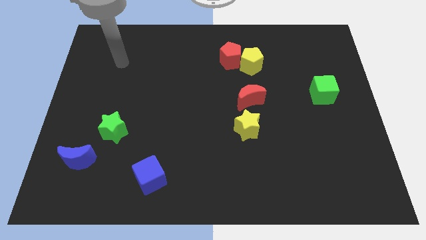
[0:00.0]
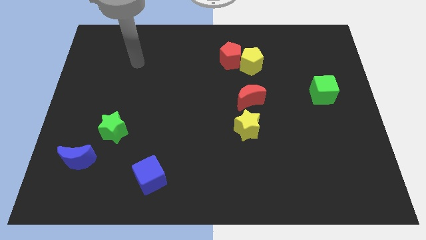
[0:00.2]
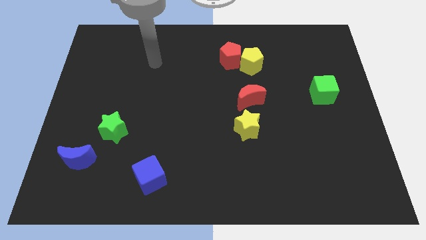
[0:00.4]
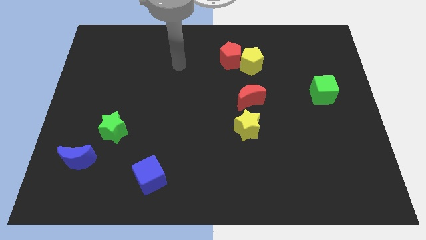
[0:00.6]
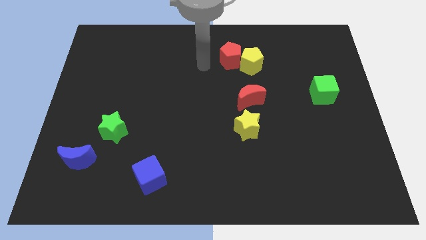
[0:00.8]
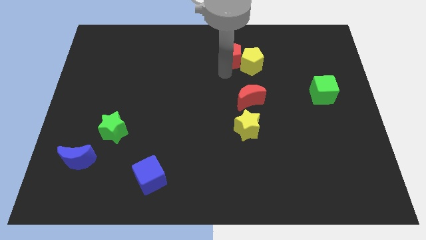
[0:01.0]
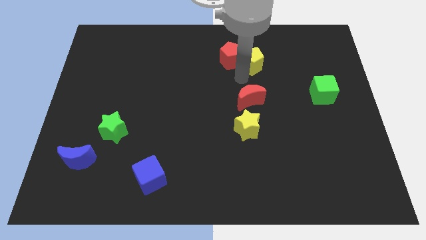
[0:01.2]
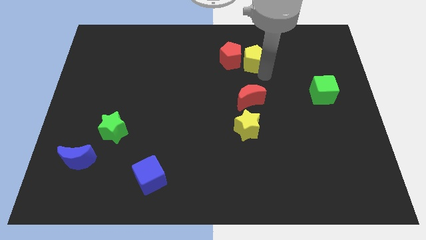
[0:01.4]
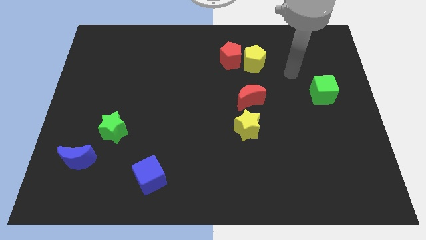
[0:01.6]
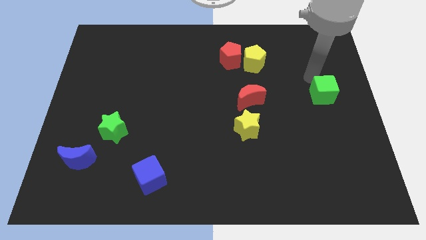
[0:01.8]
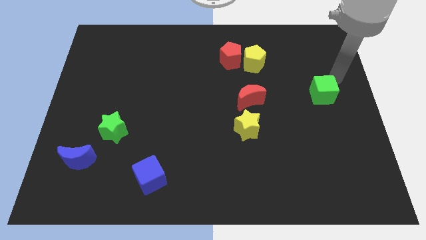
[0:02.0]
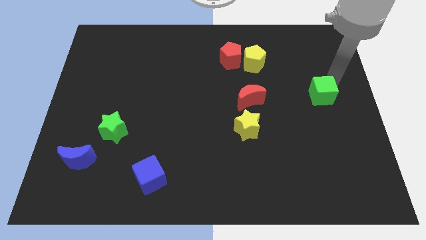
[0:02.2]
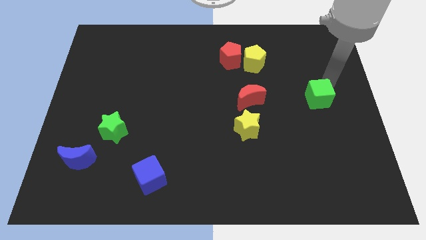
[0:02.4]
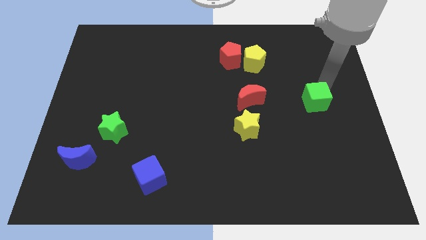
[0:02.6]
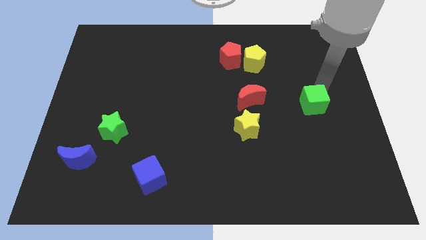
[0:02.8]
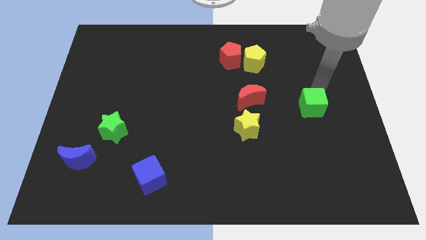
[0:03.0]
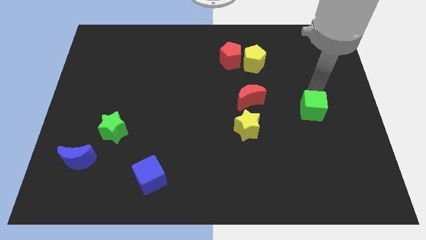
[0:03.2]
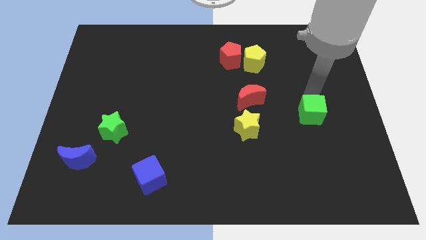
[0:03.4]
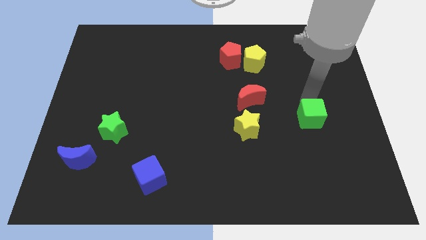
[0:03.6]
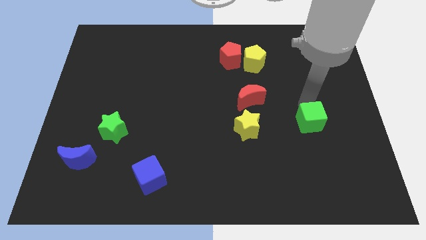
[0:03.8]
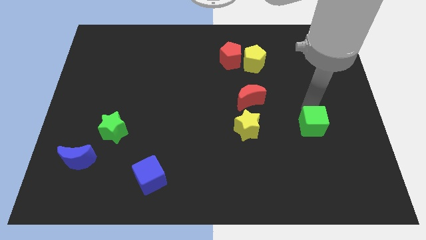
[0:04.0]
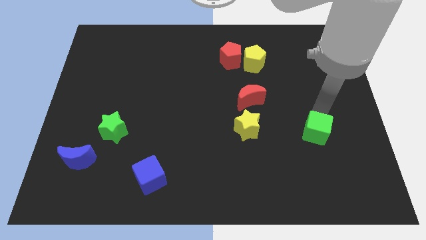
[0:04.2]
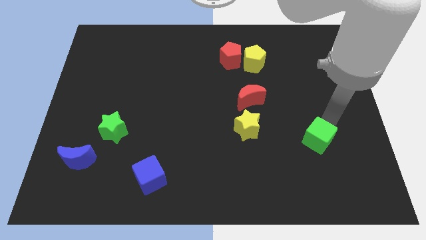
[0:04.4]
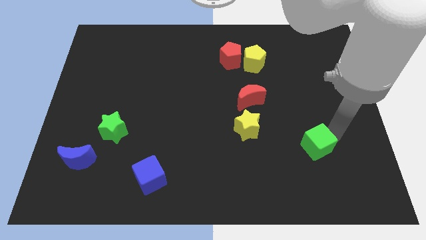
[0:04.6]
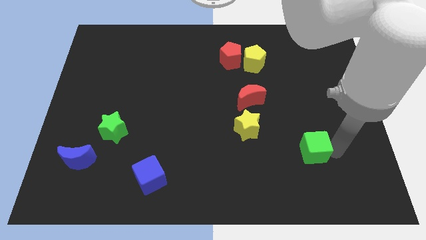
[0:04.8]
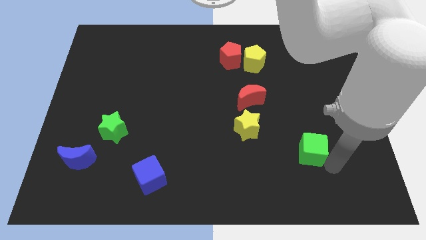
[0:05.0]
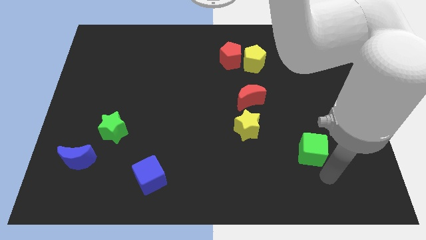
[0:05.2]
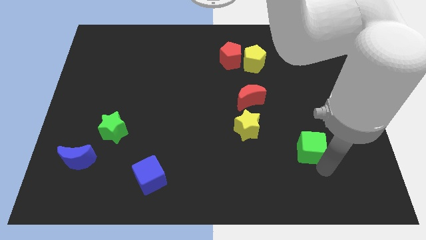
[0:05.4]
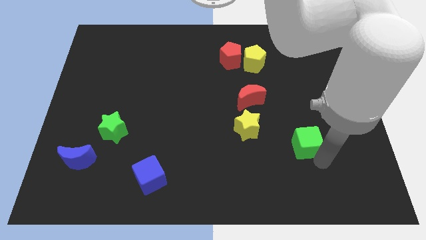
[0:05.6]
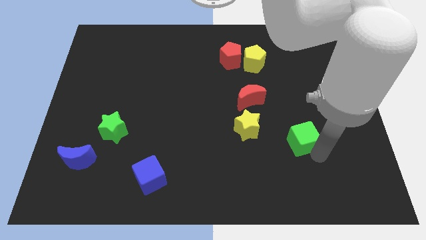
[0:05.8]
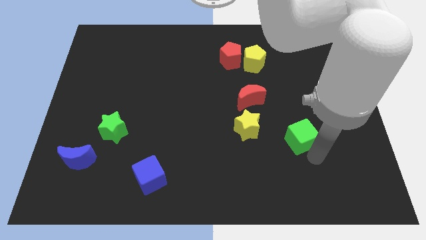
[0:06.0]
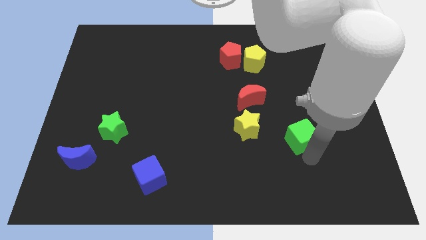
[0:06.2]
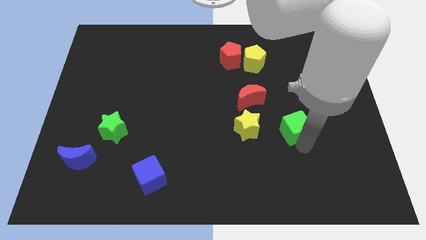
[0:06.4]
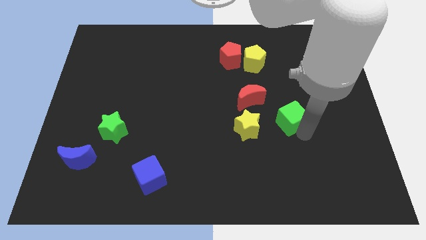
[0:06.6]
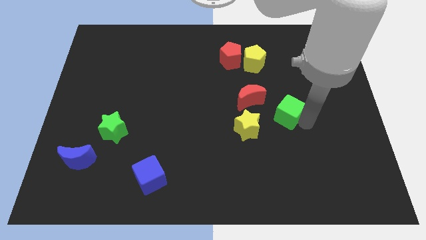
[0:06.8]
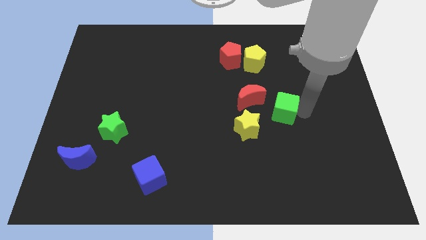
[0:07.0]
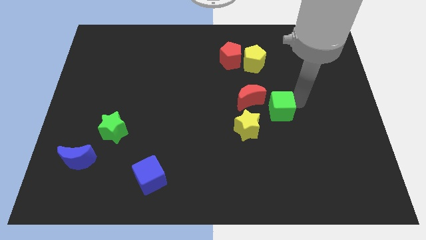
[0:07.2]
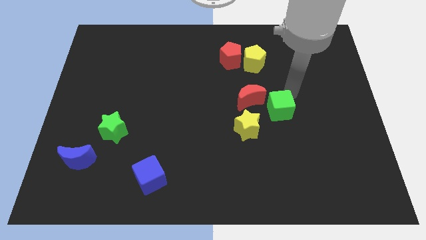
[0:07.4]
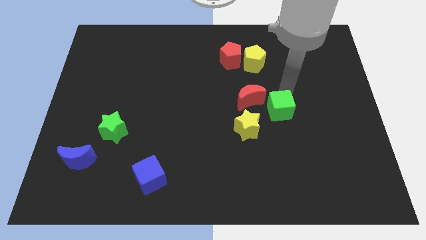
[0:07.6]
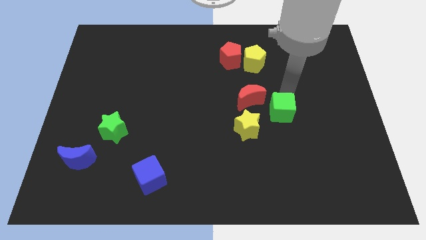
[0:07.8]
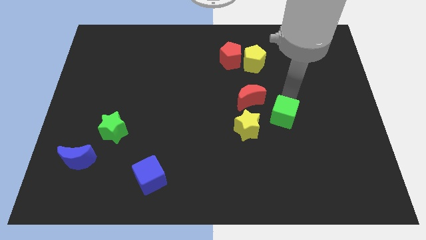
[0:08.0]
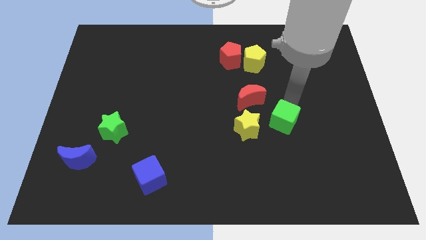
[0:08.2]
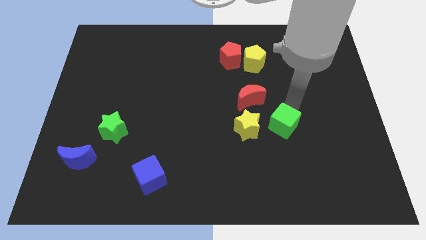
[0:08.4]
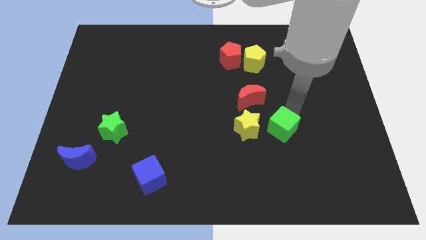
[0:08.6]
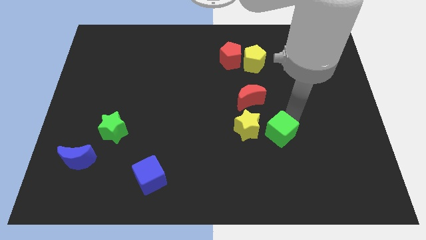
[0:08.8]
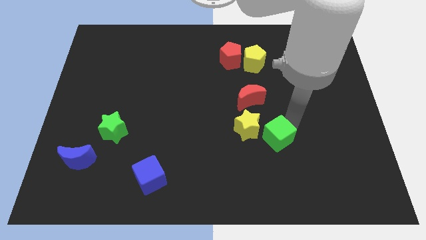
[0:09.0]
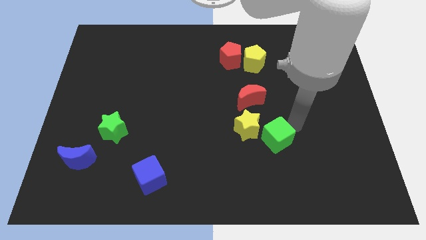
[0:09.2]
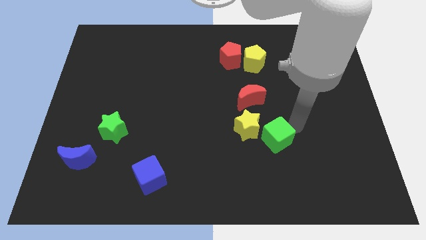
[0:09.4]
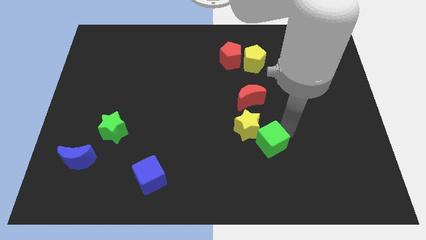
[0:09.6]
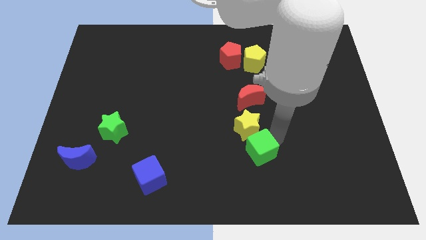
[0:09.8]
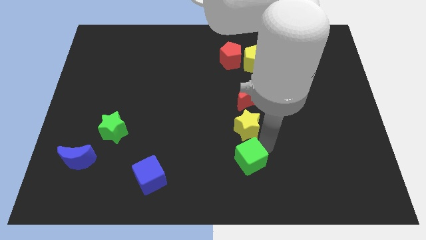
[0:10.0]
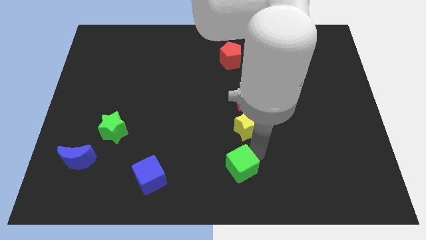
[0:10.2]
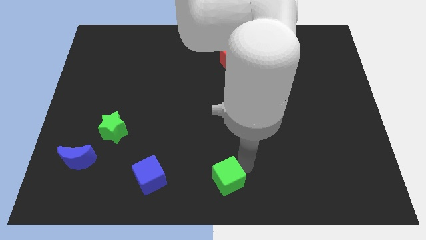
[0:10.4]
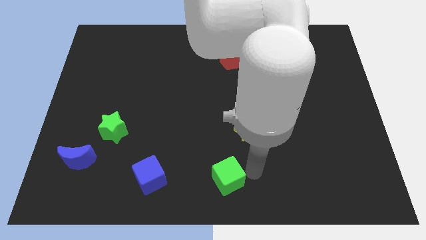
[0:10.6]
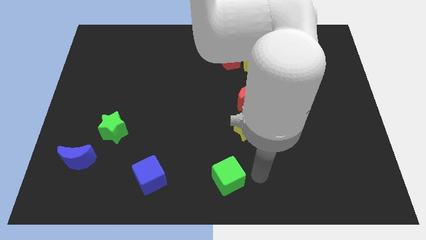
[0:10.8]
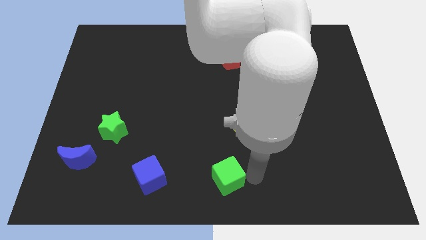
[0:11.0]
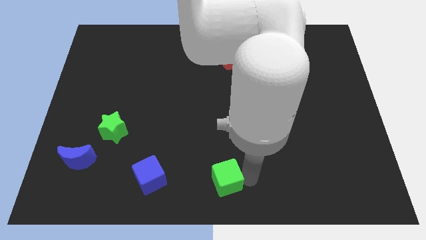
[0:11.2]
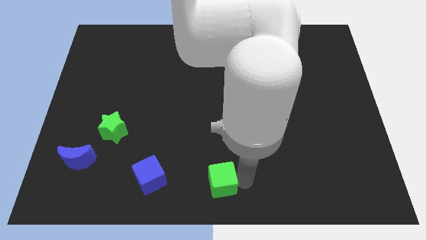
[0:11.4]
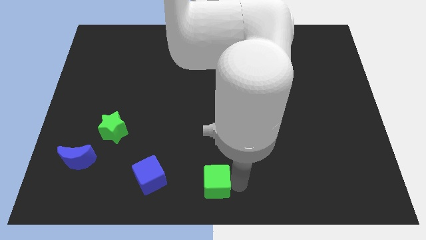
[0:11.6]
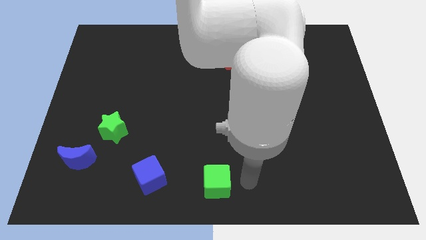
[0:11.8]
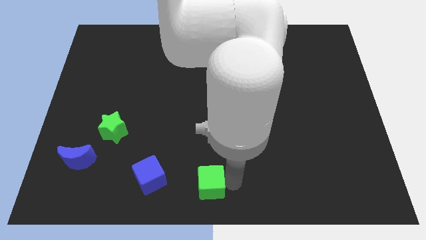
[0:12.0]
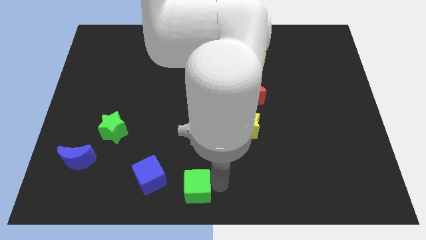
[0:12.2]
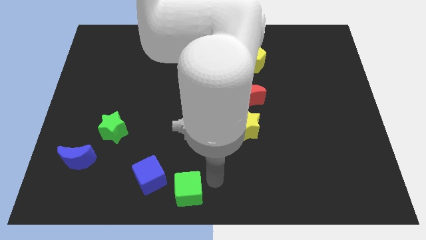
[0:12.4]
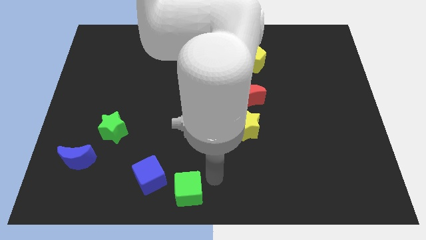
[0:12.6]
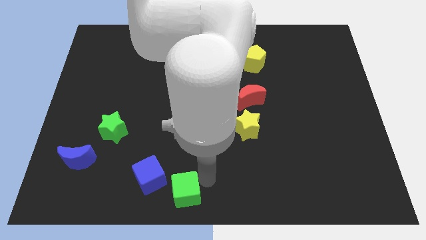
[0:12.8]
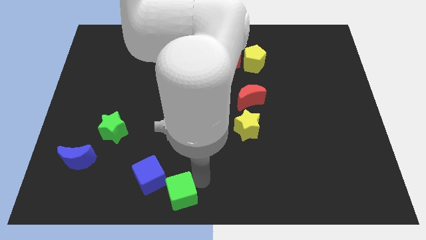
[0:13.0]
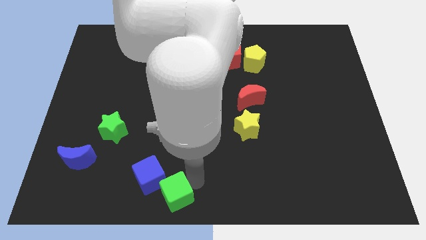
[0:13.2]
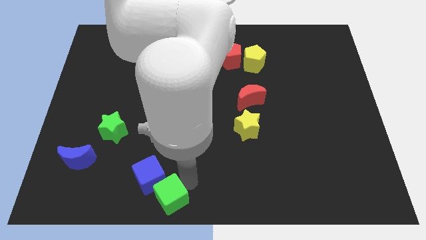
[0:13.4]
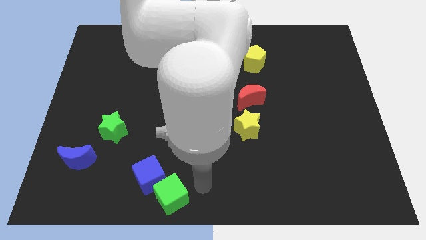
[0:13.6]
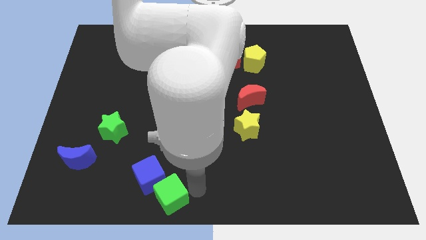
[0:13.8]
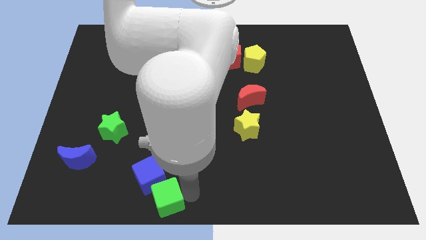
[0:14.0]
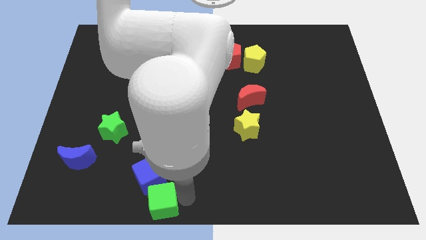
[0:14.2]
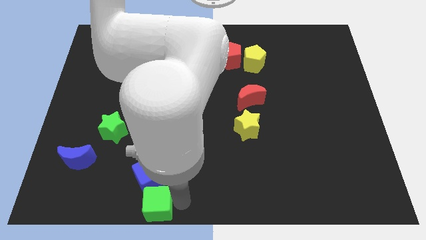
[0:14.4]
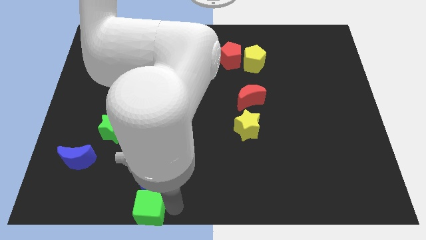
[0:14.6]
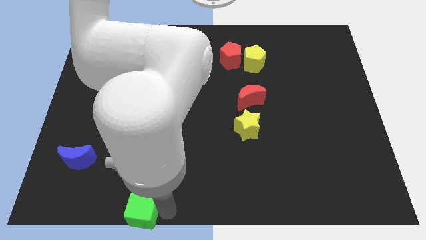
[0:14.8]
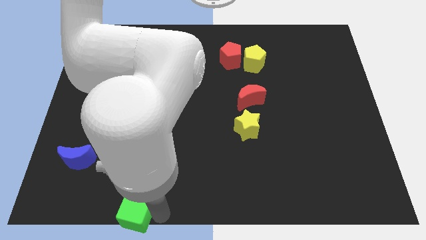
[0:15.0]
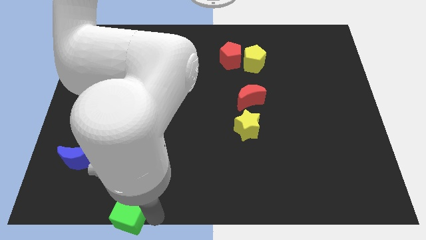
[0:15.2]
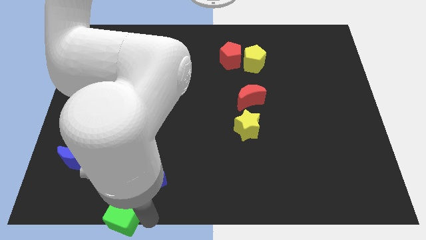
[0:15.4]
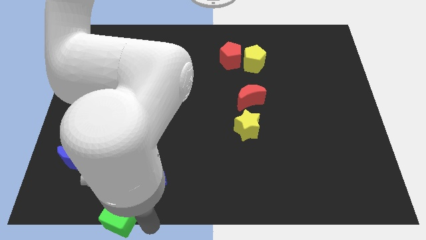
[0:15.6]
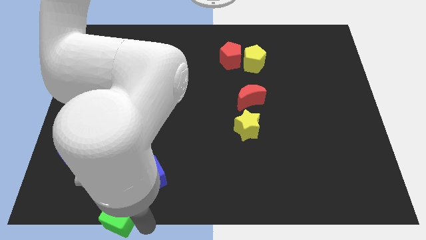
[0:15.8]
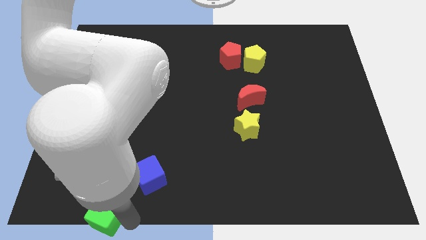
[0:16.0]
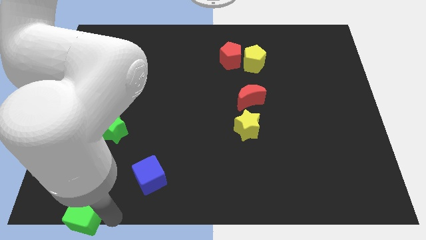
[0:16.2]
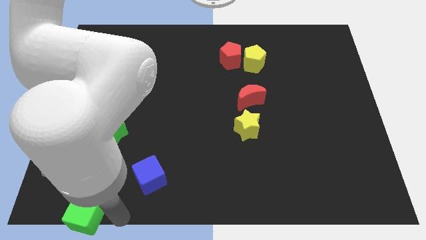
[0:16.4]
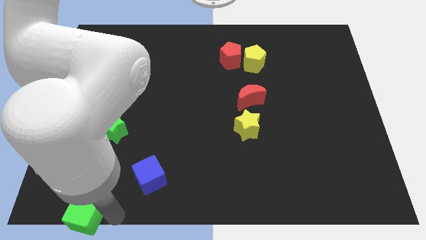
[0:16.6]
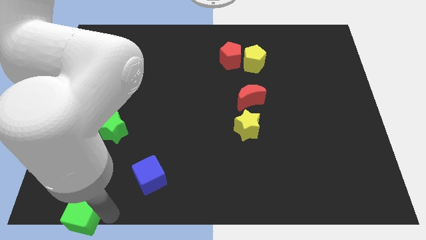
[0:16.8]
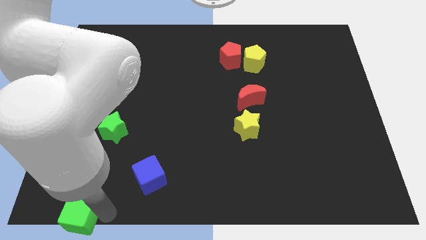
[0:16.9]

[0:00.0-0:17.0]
put the green cube to the bottom left corner
